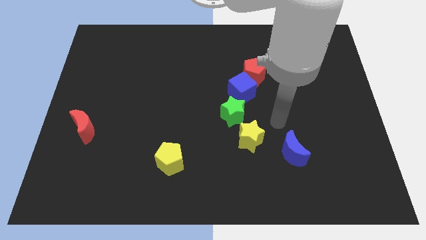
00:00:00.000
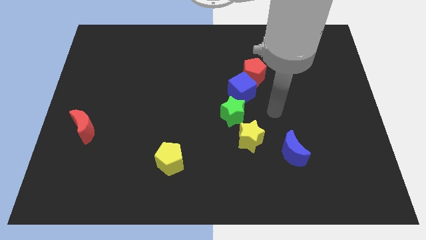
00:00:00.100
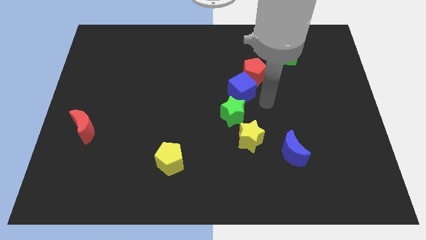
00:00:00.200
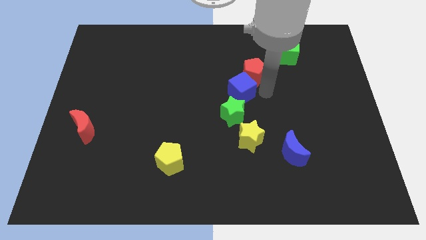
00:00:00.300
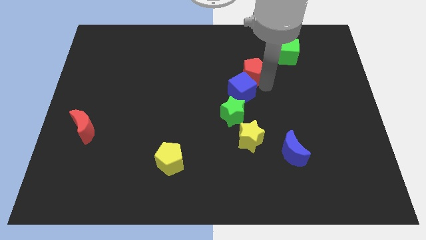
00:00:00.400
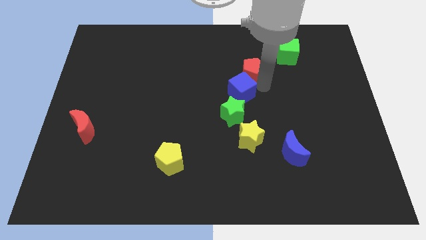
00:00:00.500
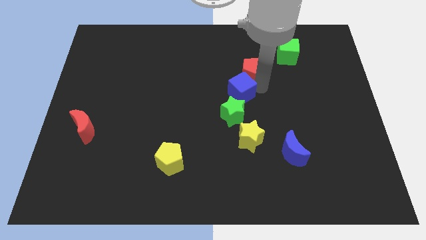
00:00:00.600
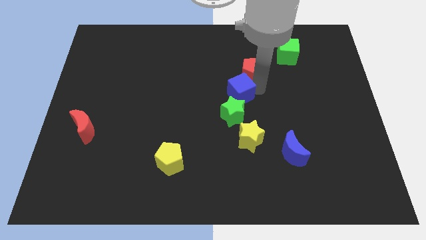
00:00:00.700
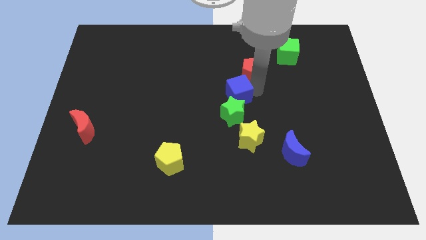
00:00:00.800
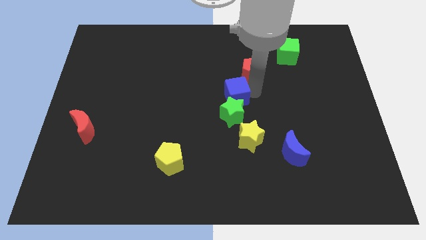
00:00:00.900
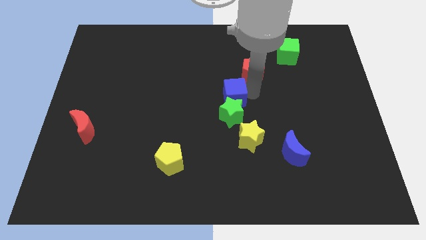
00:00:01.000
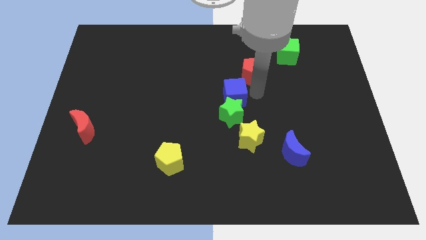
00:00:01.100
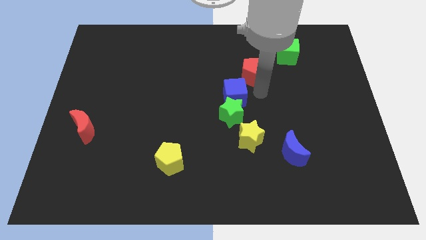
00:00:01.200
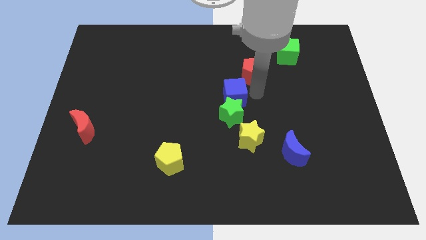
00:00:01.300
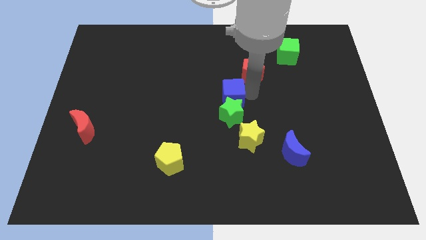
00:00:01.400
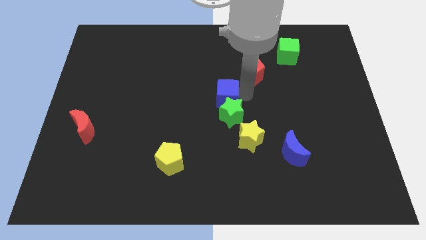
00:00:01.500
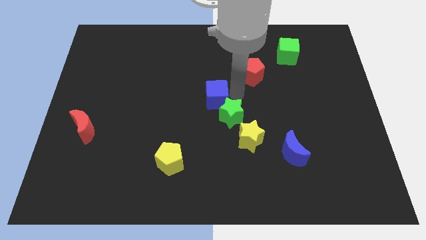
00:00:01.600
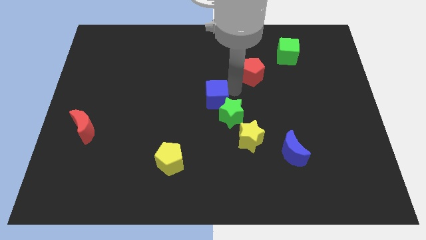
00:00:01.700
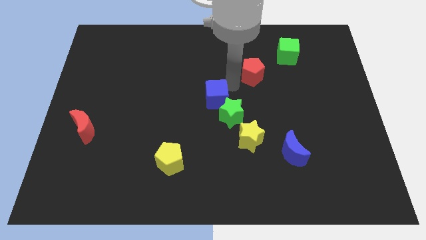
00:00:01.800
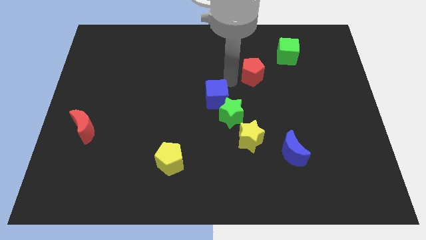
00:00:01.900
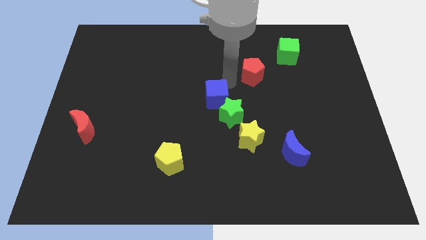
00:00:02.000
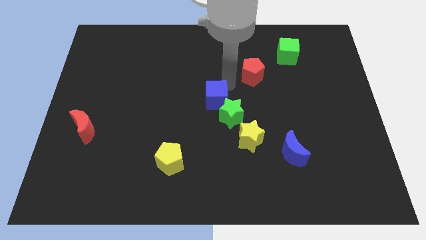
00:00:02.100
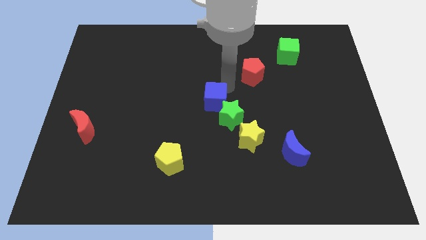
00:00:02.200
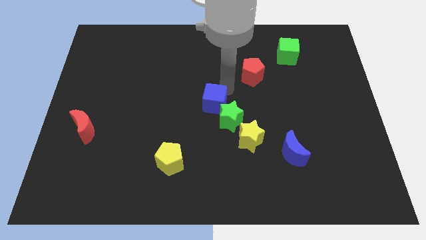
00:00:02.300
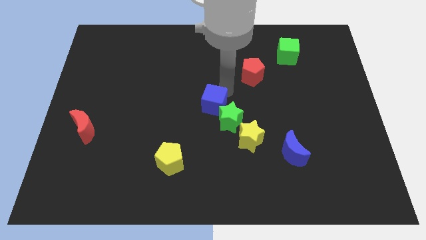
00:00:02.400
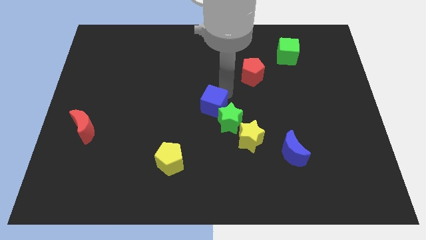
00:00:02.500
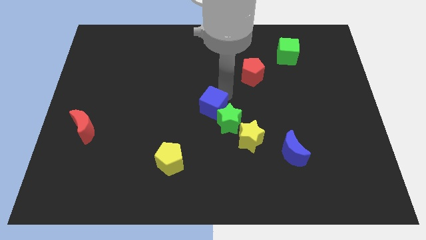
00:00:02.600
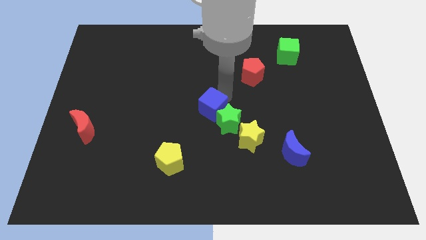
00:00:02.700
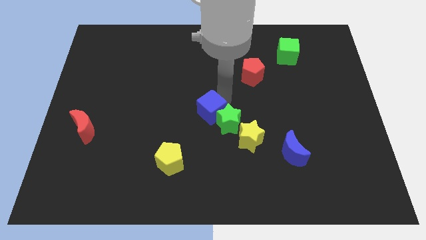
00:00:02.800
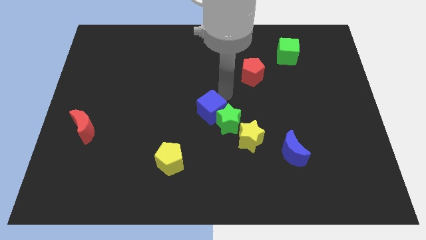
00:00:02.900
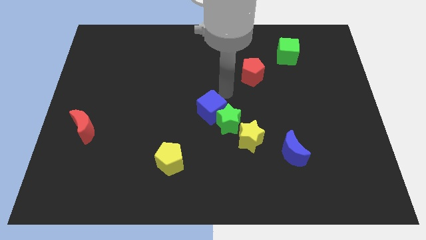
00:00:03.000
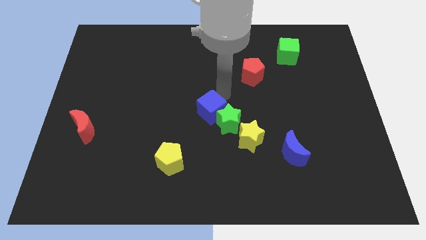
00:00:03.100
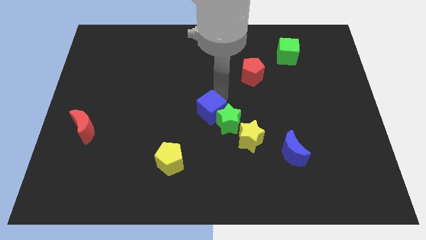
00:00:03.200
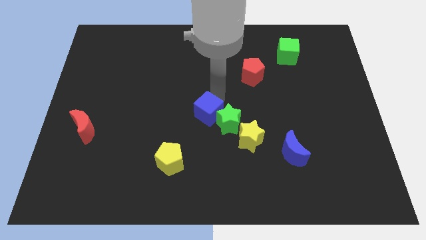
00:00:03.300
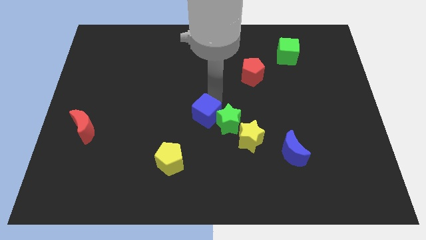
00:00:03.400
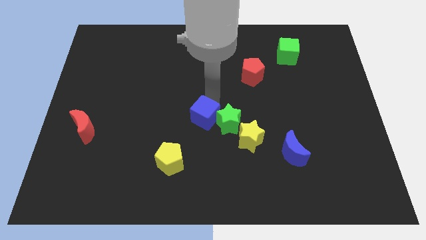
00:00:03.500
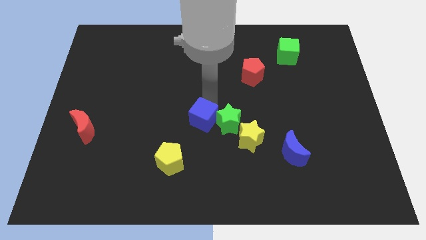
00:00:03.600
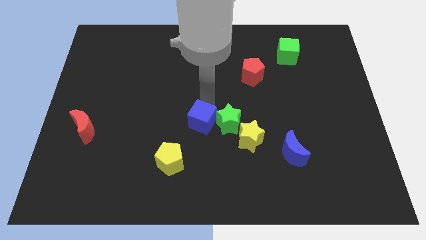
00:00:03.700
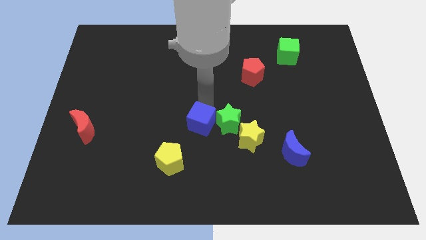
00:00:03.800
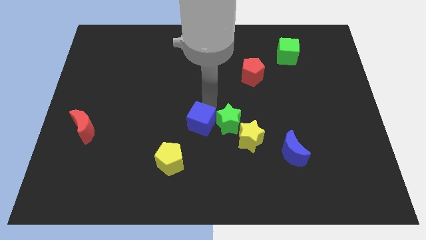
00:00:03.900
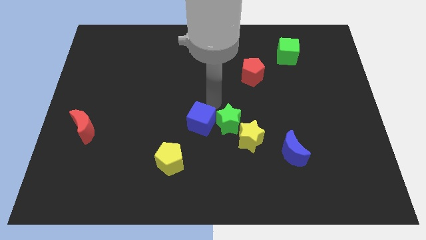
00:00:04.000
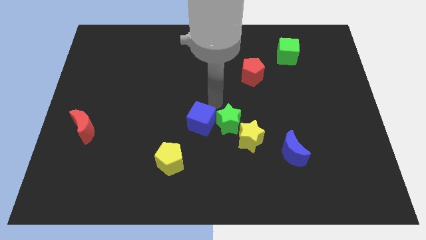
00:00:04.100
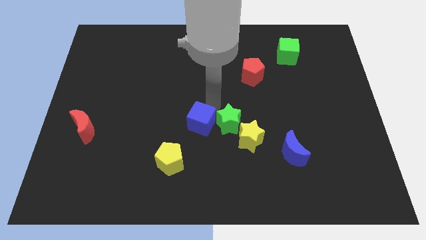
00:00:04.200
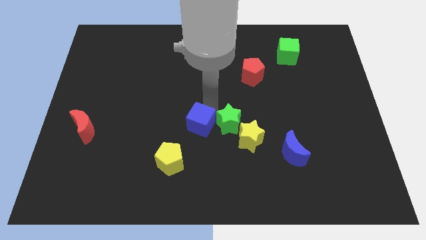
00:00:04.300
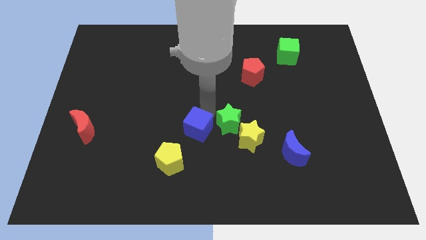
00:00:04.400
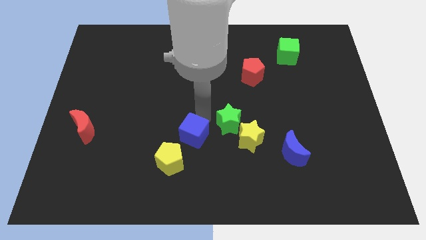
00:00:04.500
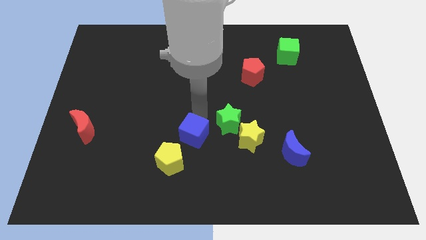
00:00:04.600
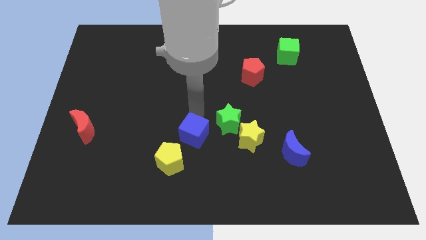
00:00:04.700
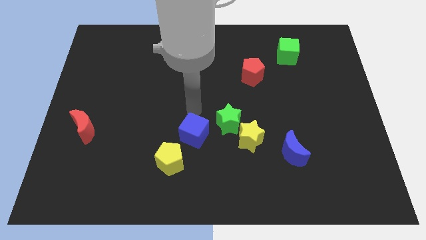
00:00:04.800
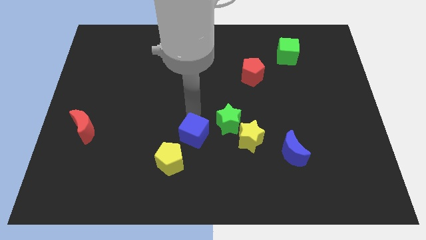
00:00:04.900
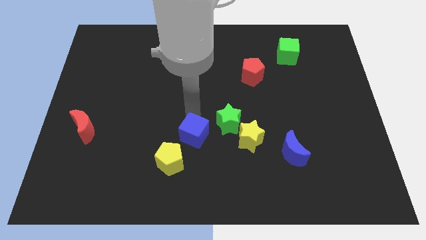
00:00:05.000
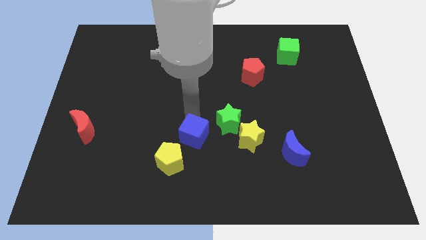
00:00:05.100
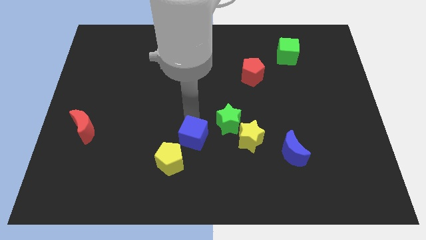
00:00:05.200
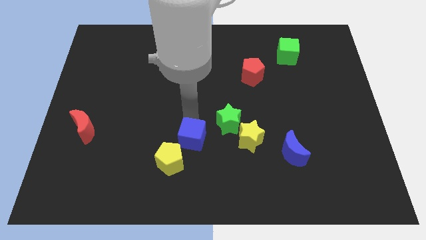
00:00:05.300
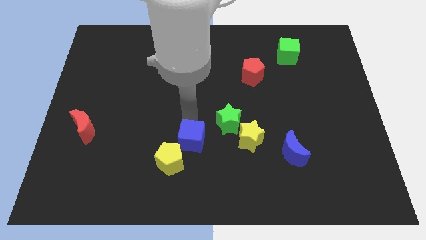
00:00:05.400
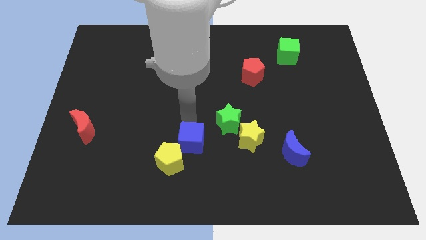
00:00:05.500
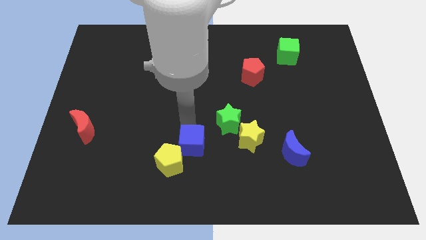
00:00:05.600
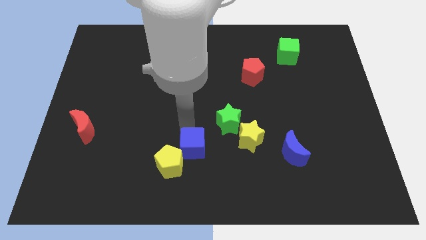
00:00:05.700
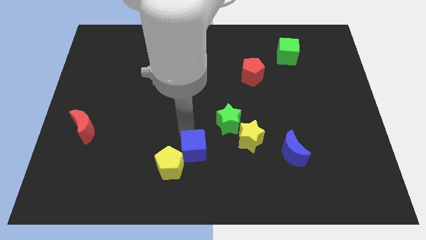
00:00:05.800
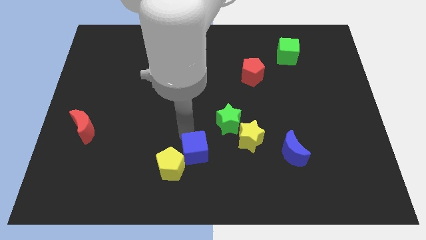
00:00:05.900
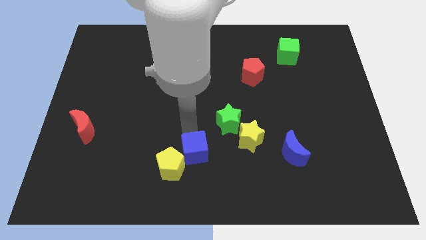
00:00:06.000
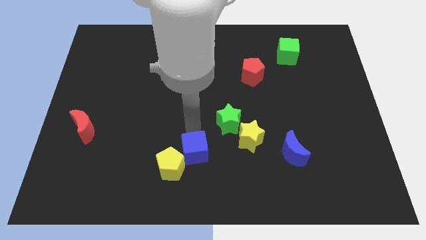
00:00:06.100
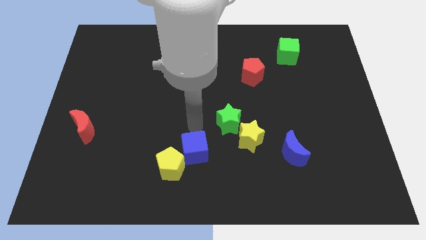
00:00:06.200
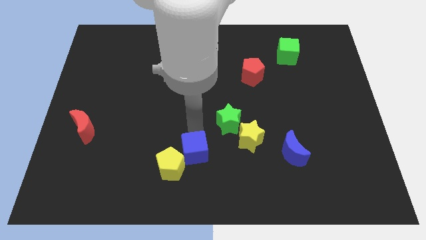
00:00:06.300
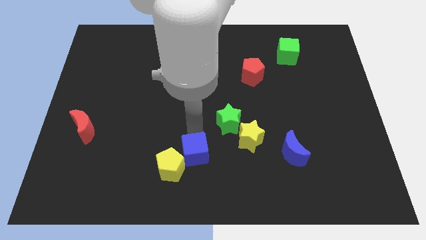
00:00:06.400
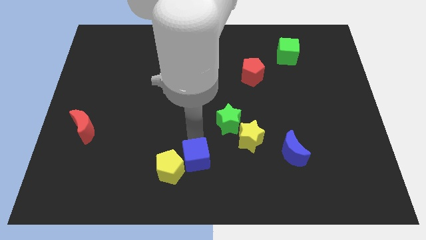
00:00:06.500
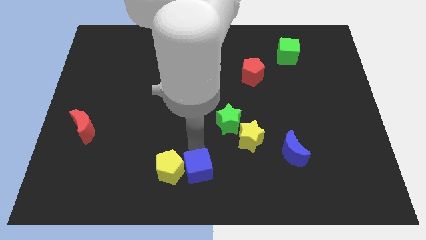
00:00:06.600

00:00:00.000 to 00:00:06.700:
put the blue cube diagonally down and to the right of the yellow pentagon

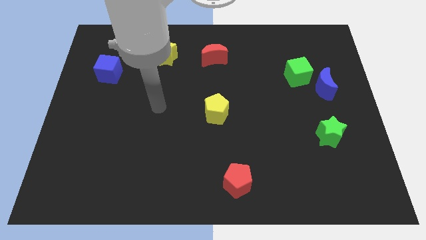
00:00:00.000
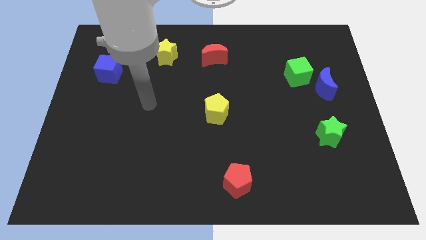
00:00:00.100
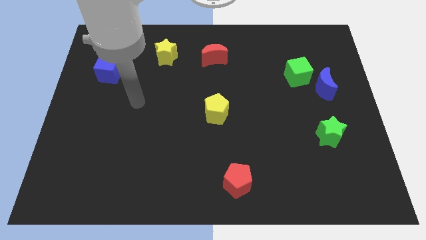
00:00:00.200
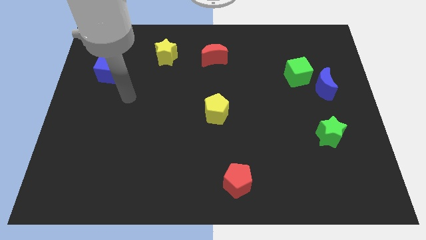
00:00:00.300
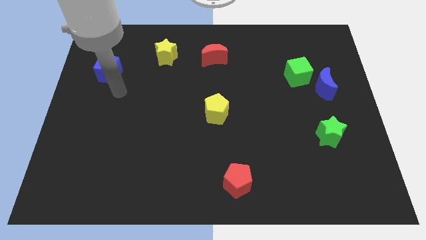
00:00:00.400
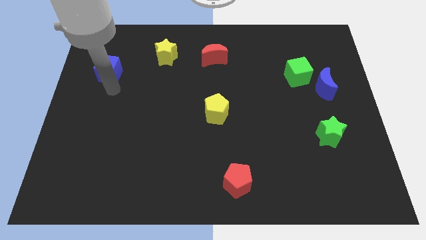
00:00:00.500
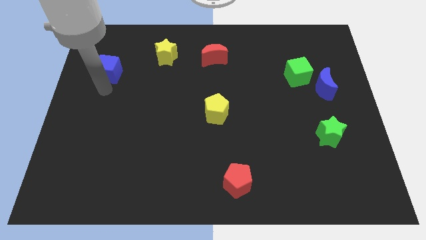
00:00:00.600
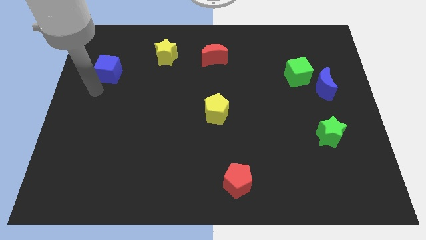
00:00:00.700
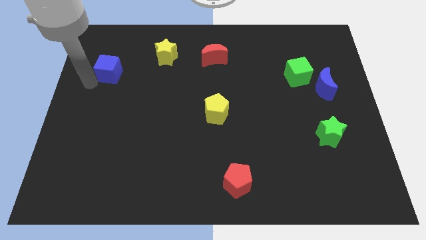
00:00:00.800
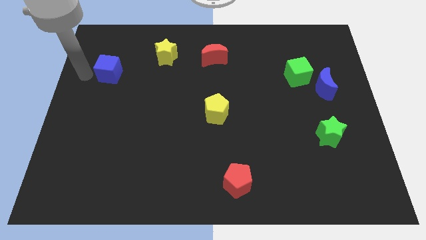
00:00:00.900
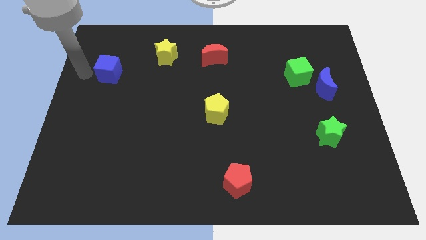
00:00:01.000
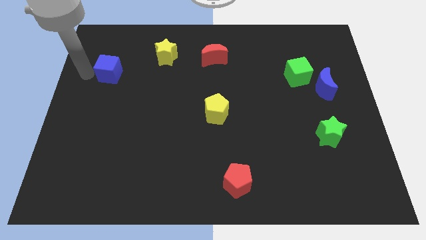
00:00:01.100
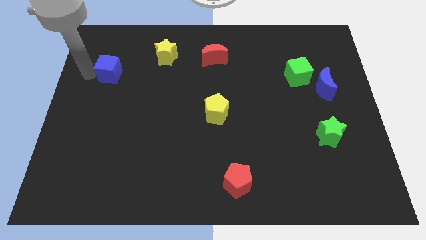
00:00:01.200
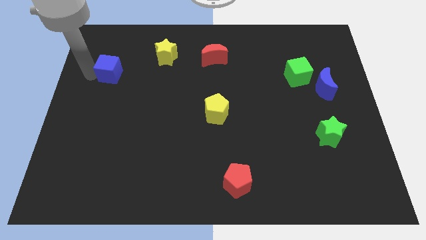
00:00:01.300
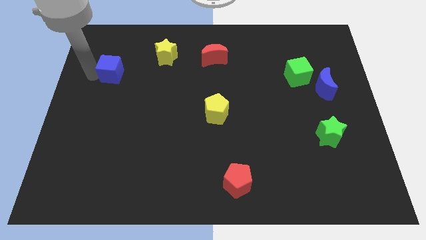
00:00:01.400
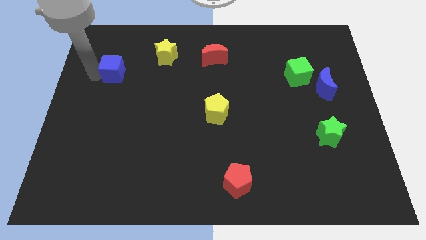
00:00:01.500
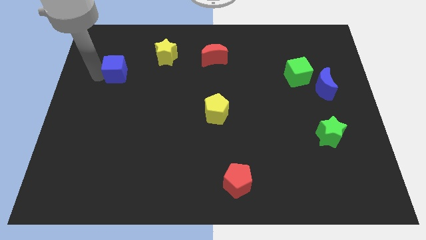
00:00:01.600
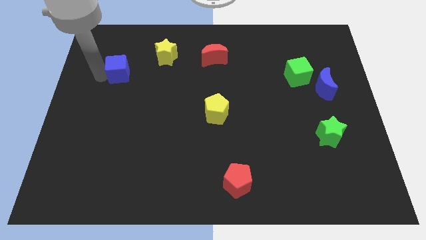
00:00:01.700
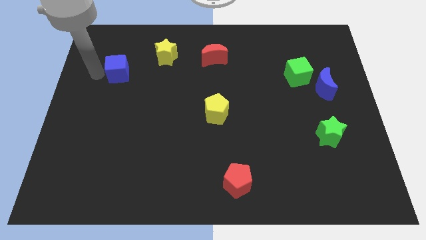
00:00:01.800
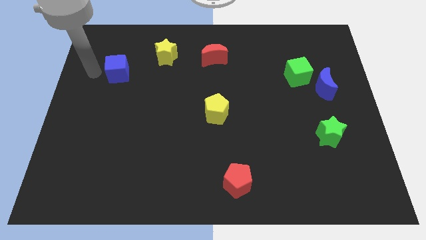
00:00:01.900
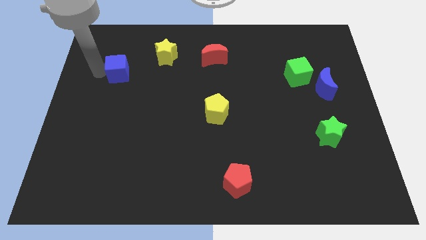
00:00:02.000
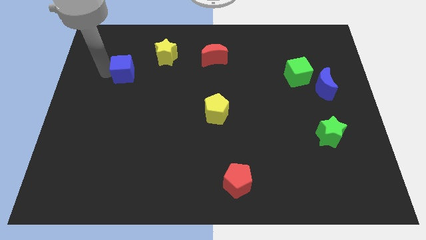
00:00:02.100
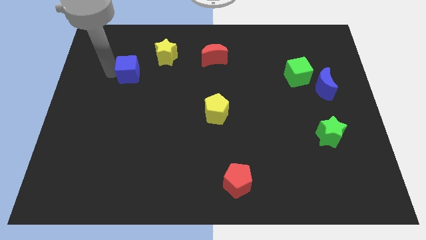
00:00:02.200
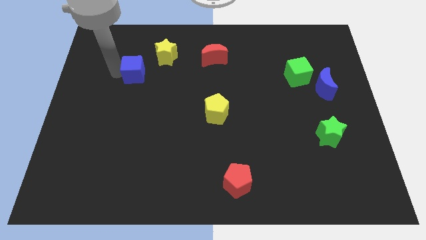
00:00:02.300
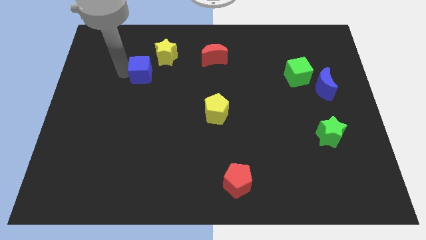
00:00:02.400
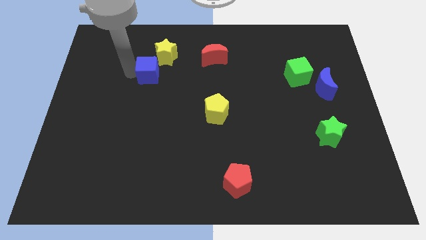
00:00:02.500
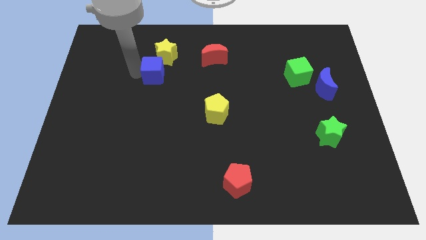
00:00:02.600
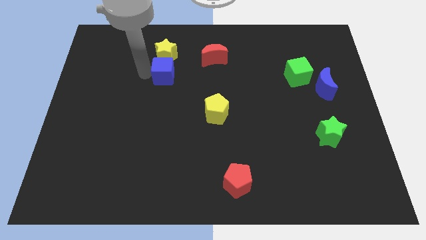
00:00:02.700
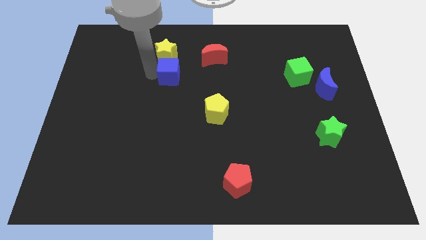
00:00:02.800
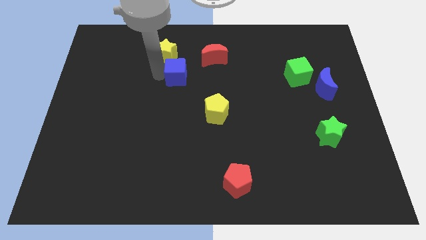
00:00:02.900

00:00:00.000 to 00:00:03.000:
slide the blue cube diagonally down and to the left of the red moon
